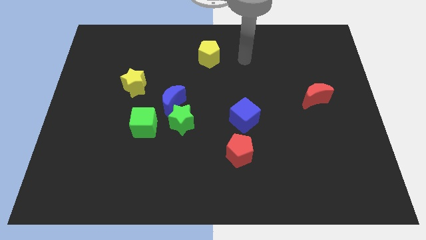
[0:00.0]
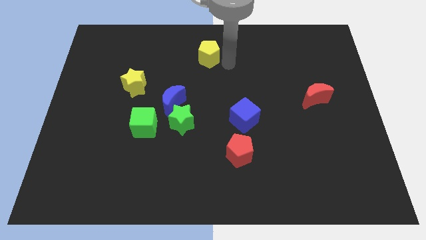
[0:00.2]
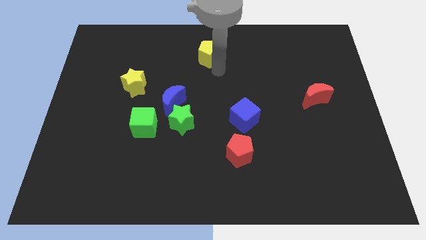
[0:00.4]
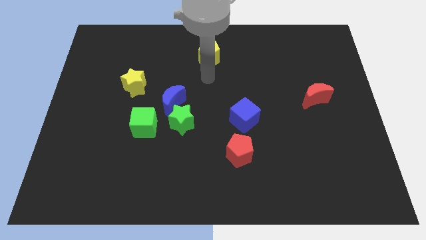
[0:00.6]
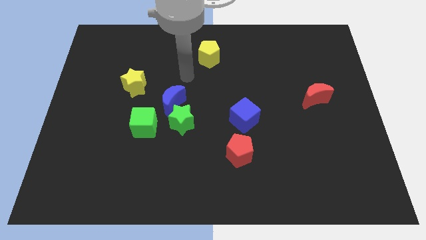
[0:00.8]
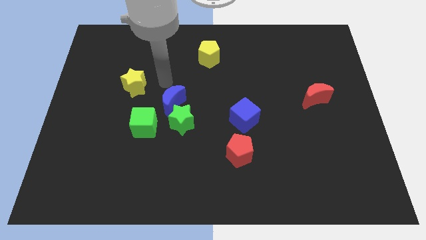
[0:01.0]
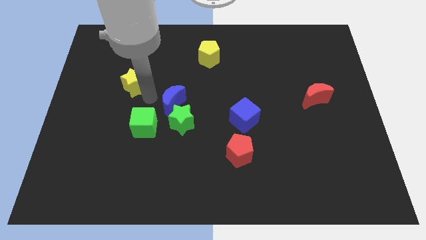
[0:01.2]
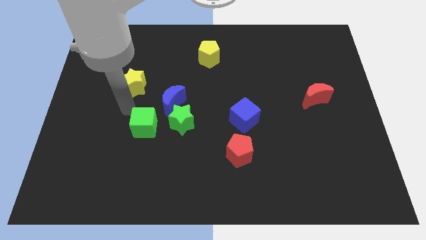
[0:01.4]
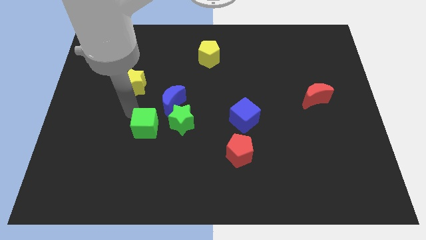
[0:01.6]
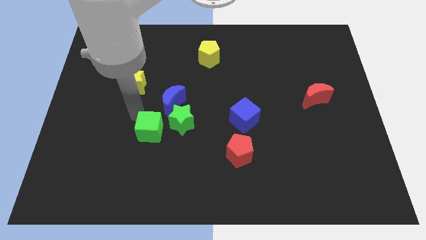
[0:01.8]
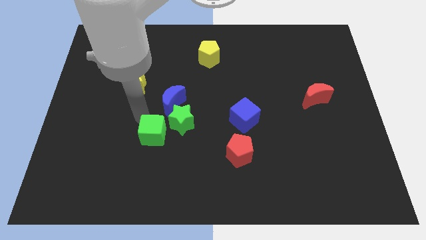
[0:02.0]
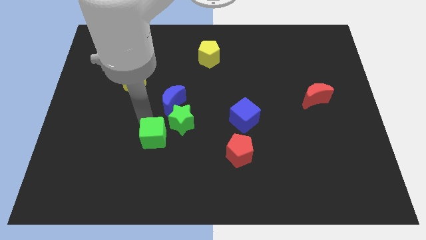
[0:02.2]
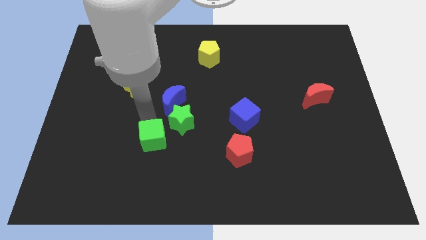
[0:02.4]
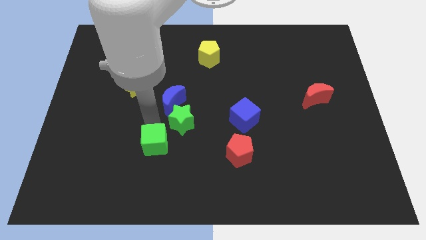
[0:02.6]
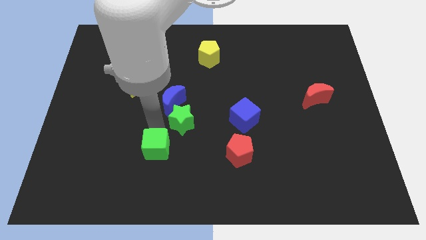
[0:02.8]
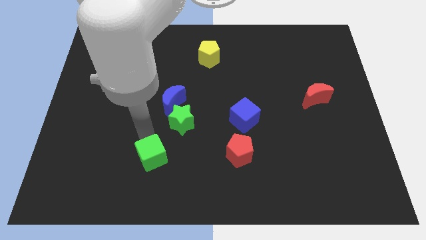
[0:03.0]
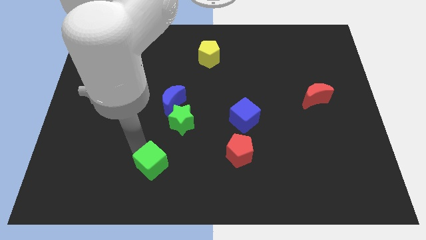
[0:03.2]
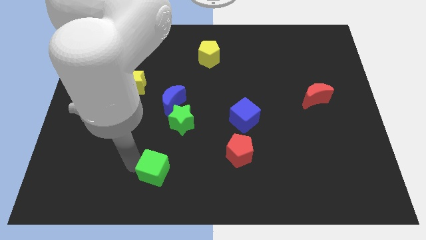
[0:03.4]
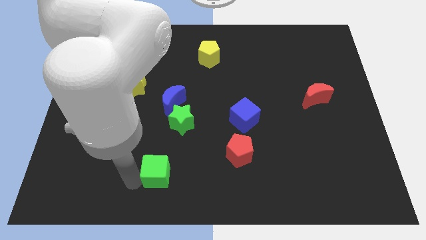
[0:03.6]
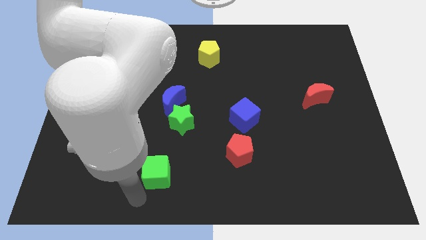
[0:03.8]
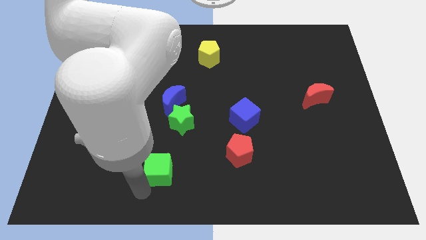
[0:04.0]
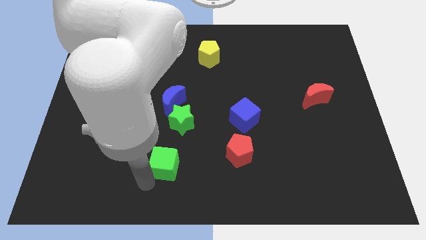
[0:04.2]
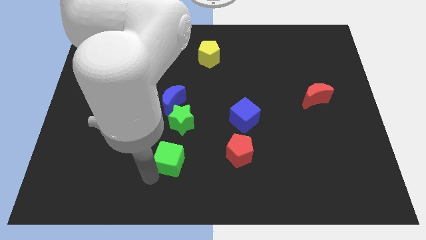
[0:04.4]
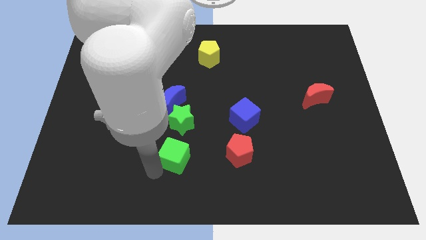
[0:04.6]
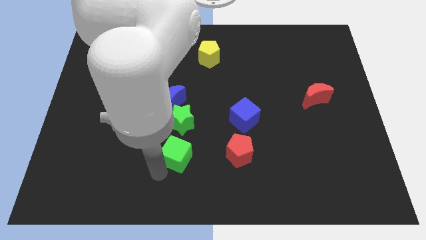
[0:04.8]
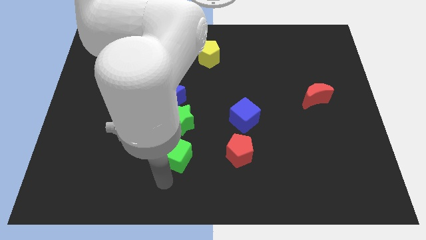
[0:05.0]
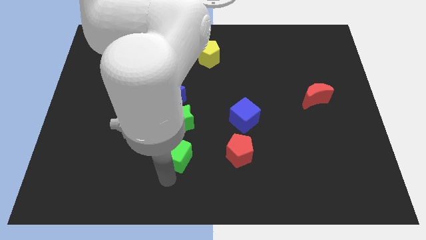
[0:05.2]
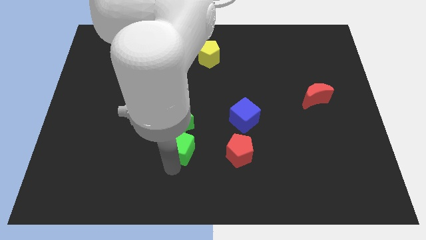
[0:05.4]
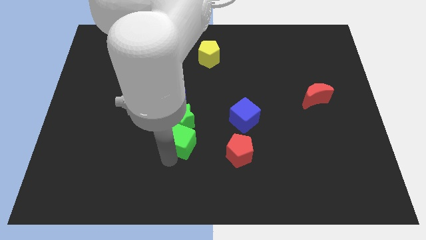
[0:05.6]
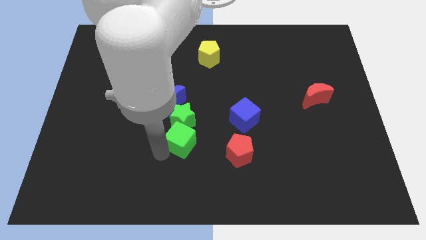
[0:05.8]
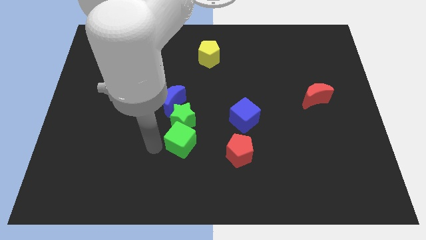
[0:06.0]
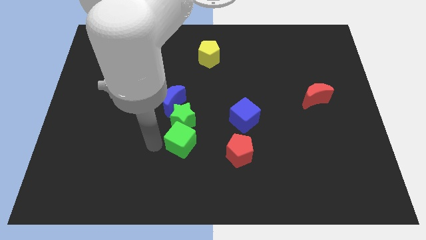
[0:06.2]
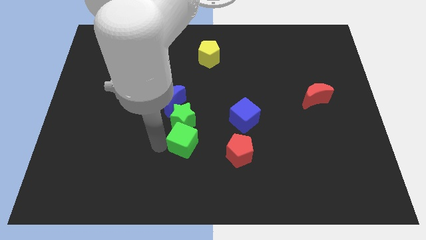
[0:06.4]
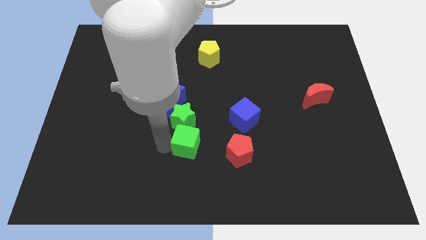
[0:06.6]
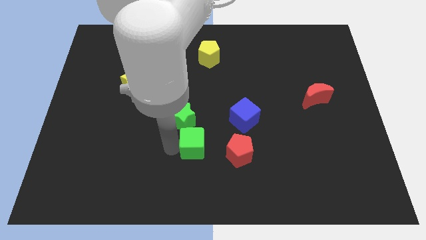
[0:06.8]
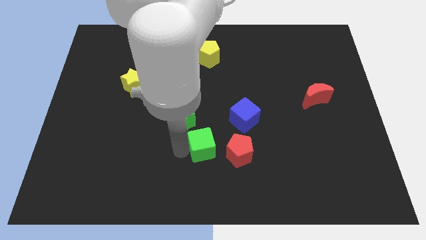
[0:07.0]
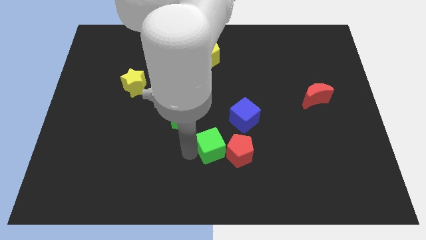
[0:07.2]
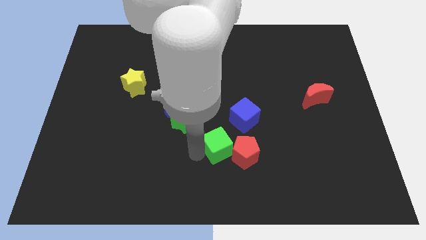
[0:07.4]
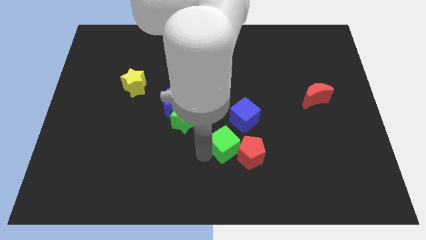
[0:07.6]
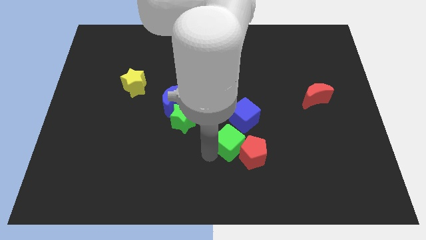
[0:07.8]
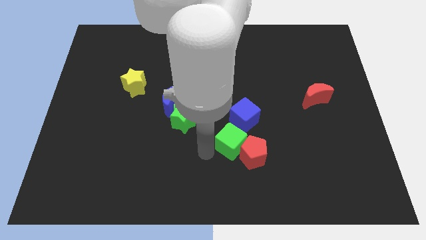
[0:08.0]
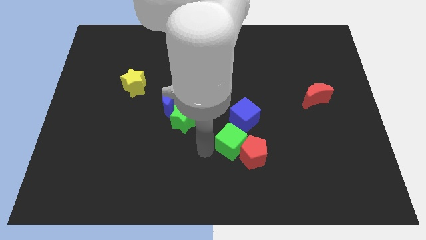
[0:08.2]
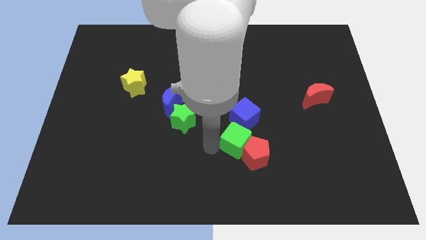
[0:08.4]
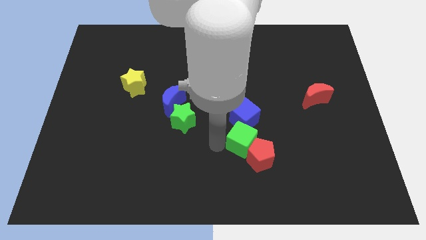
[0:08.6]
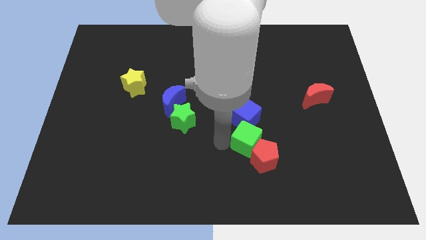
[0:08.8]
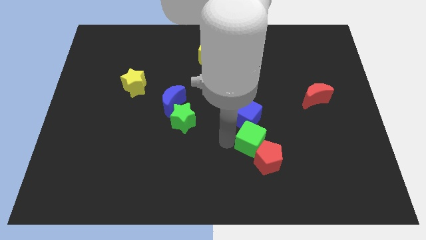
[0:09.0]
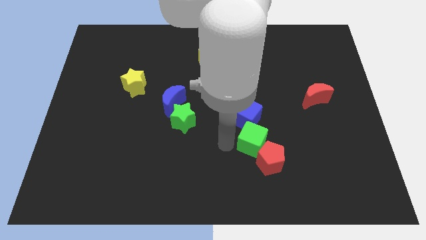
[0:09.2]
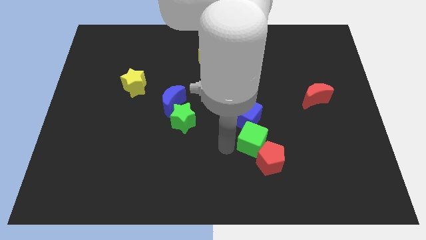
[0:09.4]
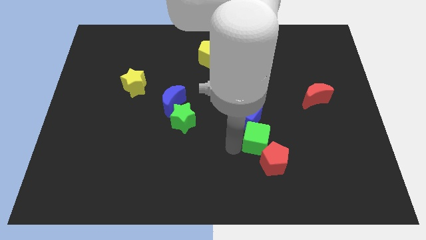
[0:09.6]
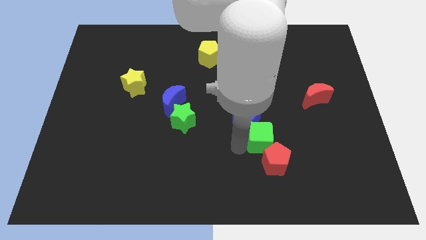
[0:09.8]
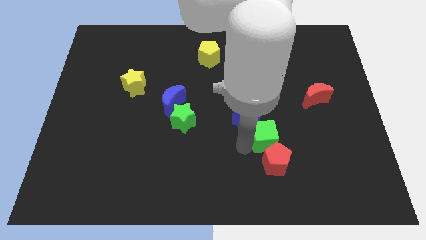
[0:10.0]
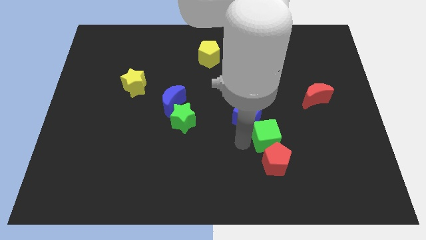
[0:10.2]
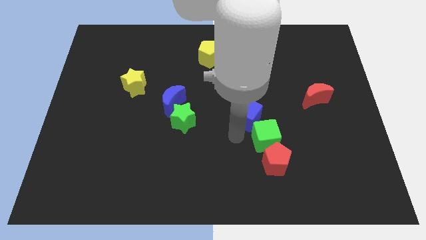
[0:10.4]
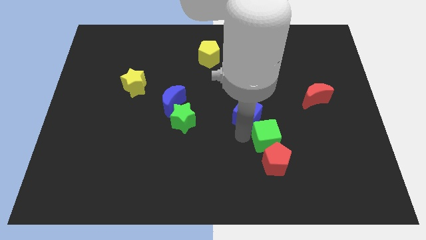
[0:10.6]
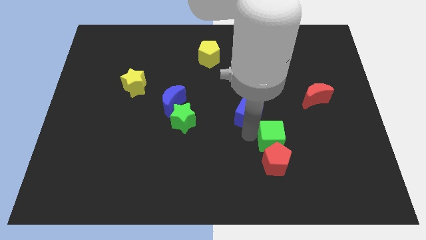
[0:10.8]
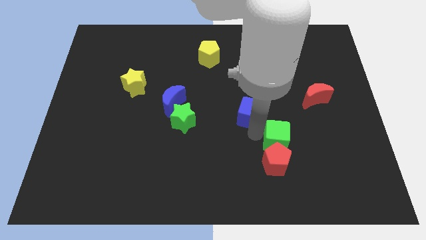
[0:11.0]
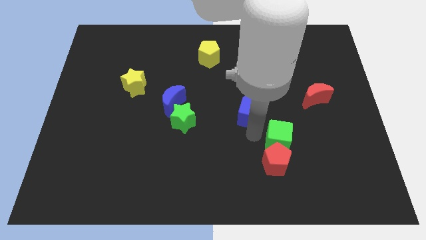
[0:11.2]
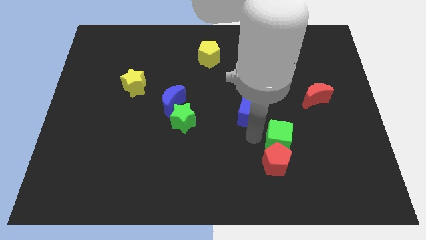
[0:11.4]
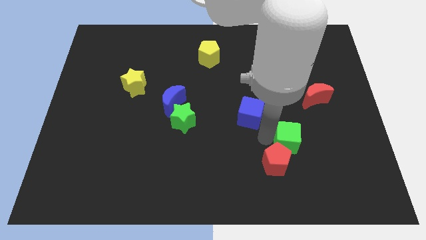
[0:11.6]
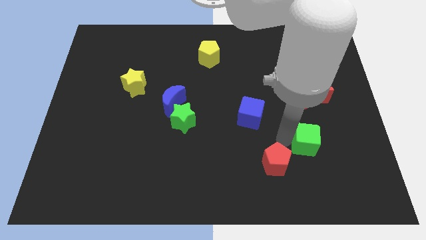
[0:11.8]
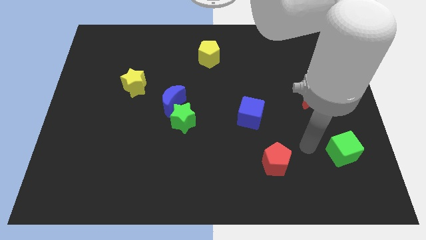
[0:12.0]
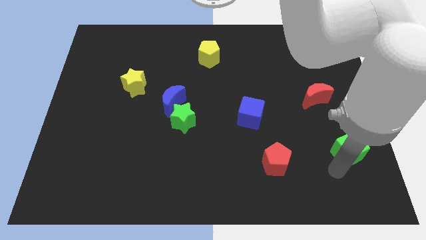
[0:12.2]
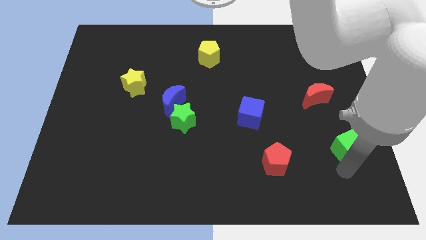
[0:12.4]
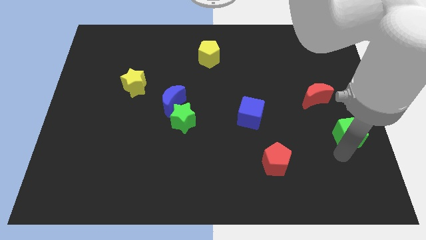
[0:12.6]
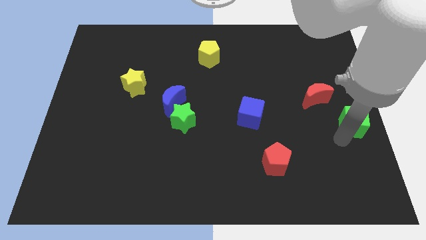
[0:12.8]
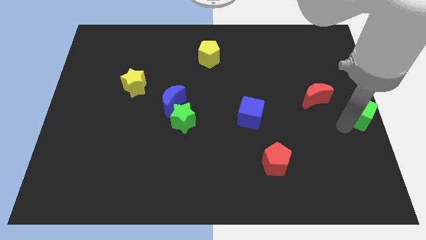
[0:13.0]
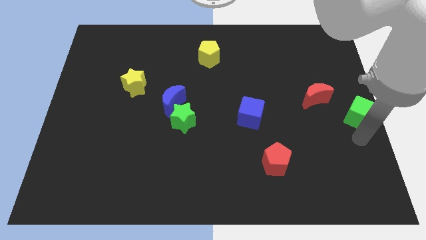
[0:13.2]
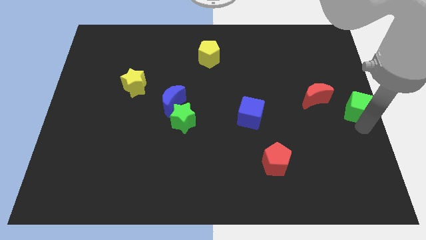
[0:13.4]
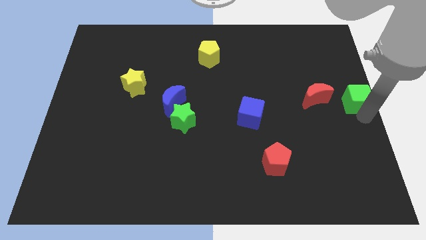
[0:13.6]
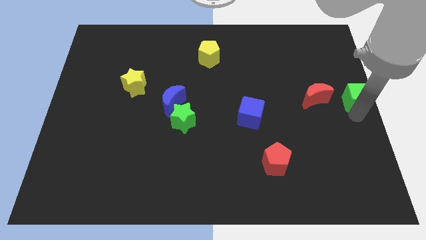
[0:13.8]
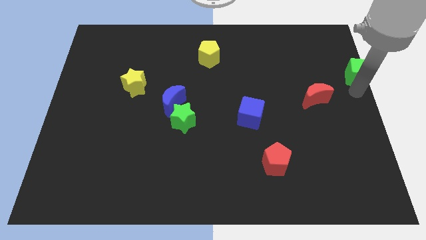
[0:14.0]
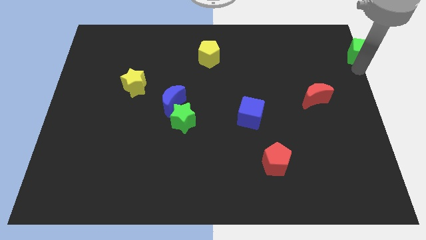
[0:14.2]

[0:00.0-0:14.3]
slide the green cube to the top right of the board

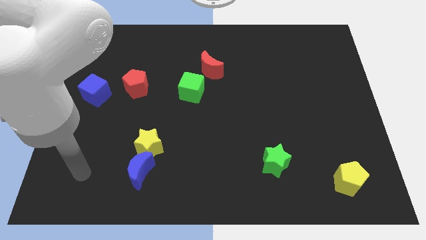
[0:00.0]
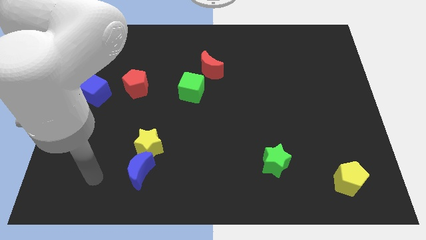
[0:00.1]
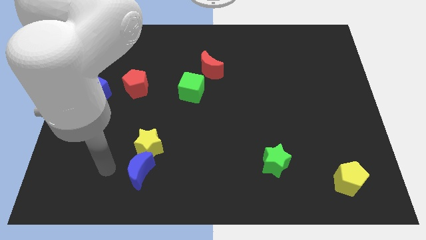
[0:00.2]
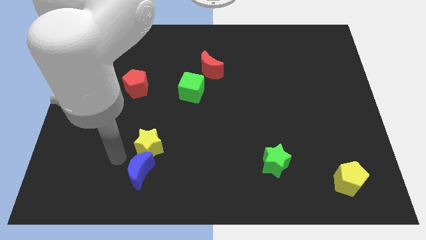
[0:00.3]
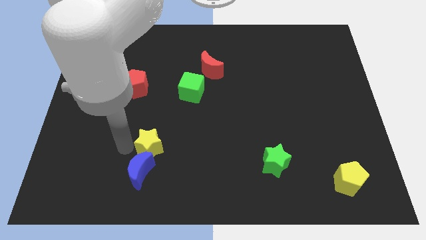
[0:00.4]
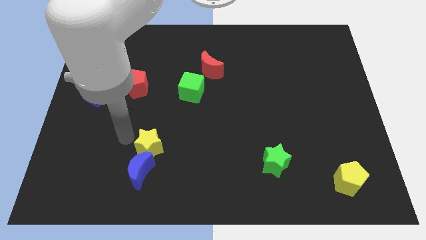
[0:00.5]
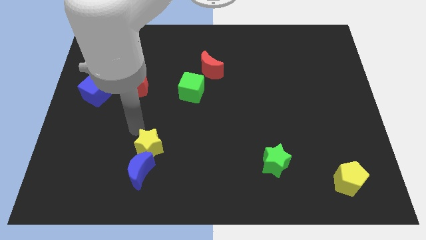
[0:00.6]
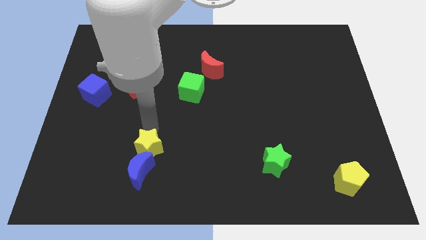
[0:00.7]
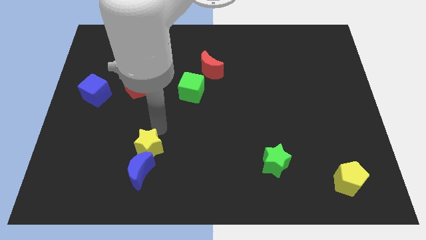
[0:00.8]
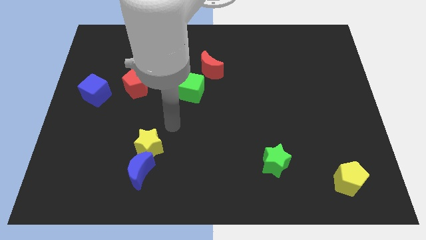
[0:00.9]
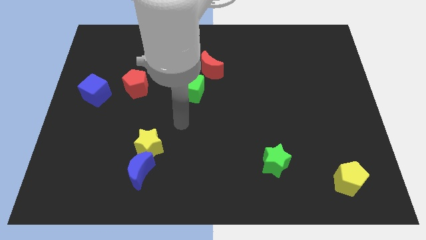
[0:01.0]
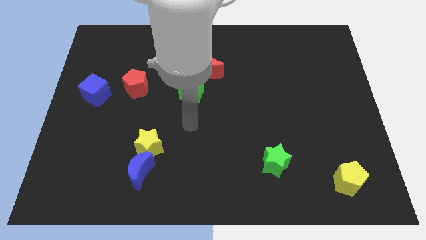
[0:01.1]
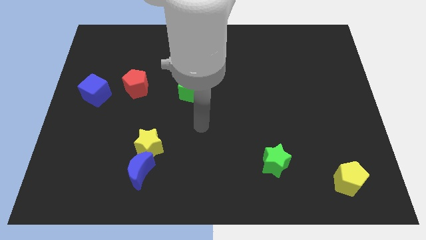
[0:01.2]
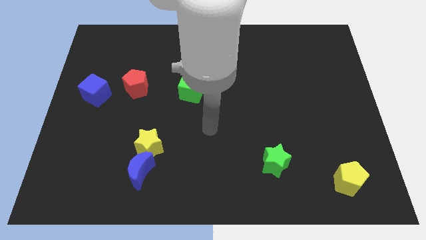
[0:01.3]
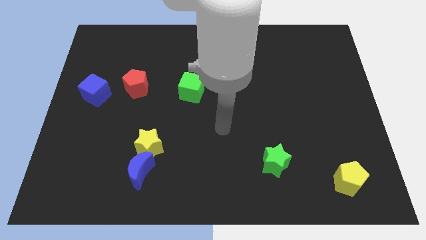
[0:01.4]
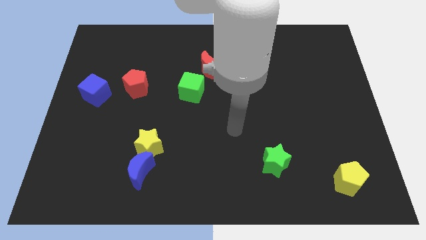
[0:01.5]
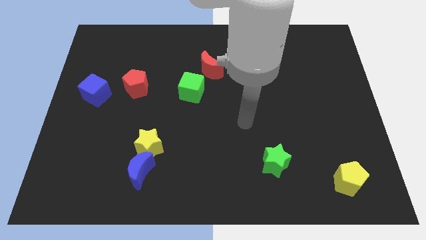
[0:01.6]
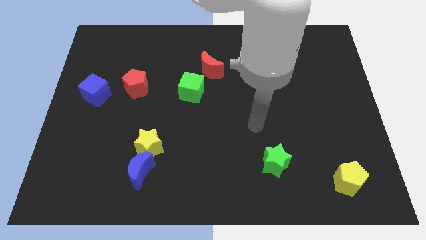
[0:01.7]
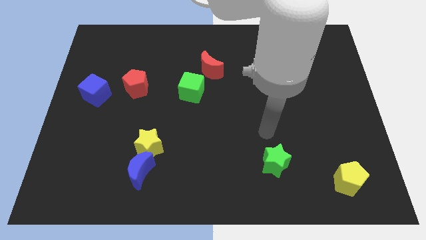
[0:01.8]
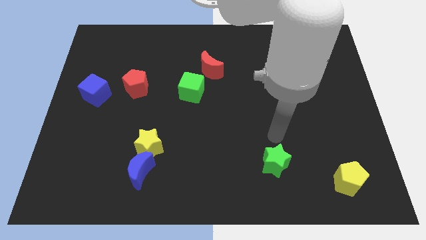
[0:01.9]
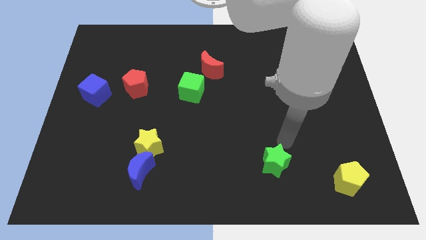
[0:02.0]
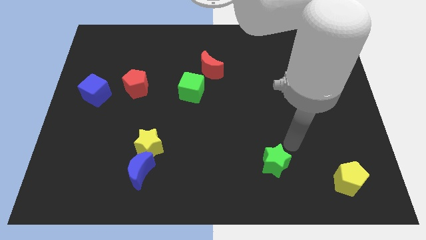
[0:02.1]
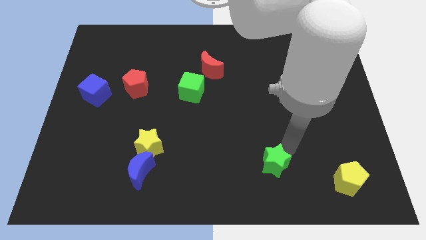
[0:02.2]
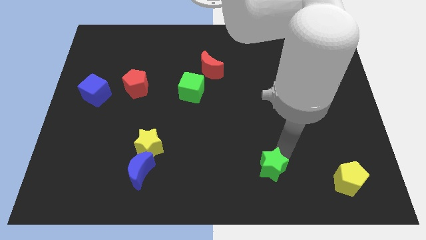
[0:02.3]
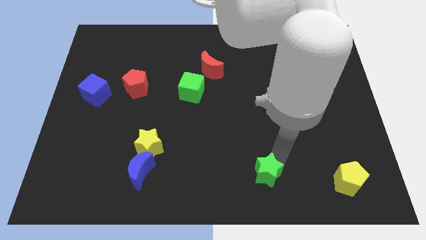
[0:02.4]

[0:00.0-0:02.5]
move the green star to the bottom
